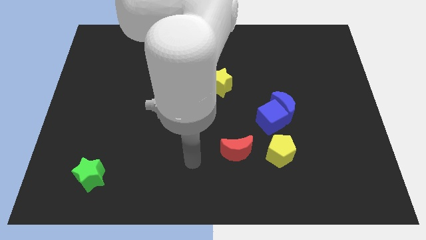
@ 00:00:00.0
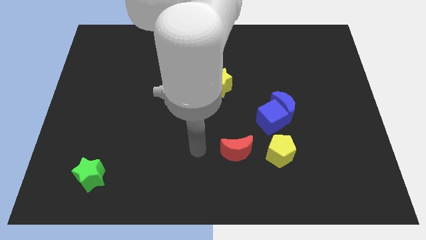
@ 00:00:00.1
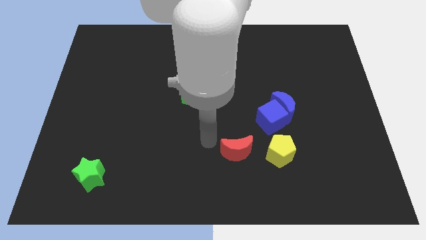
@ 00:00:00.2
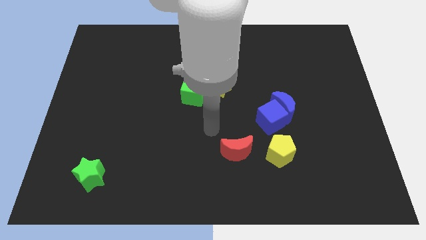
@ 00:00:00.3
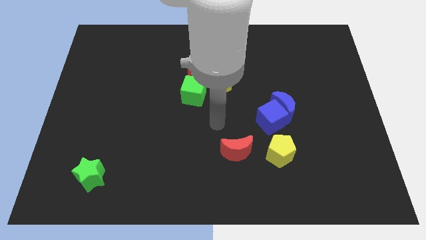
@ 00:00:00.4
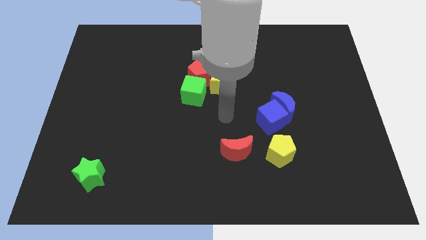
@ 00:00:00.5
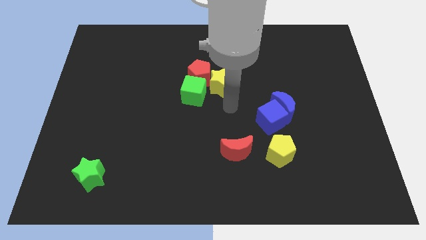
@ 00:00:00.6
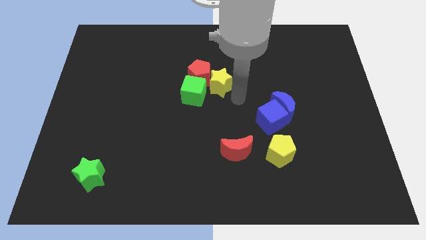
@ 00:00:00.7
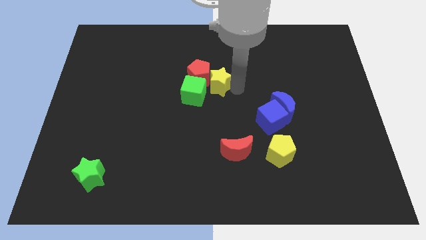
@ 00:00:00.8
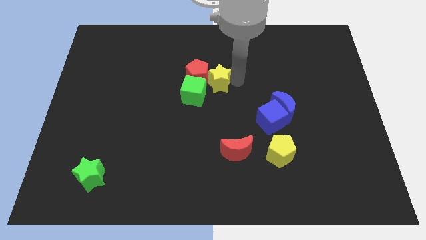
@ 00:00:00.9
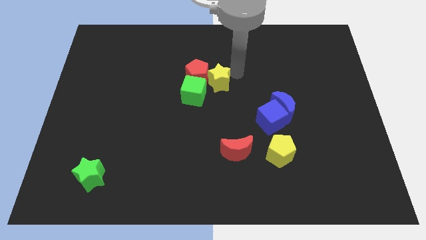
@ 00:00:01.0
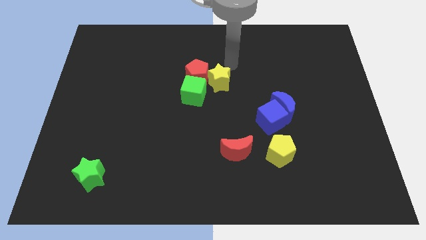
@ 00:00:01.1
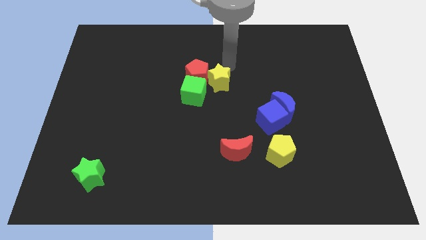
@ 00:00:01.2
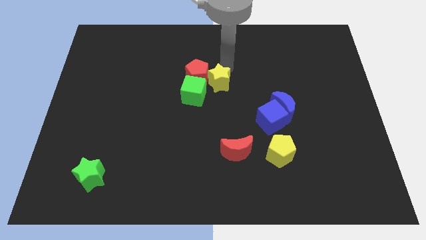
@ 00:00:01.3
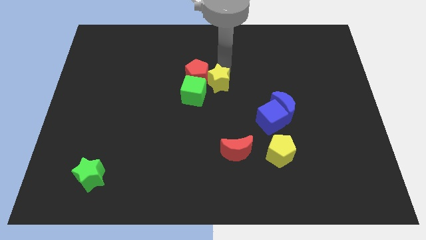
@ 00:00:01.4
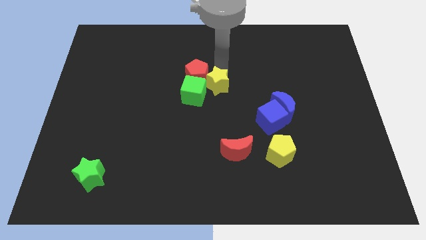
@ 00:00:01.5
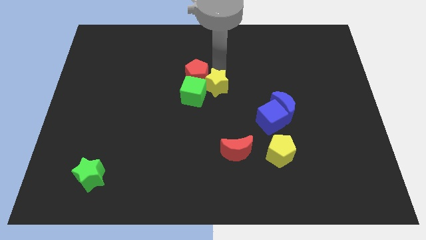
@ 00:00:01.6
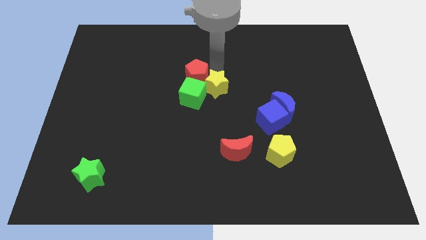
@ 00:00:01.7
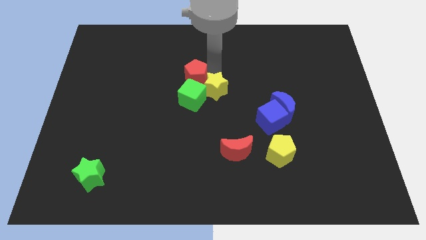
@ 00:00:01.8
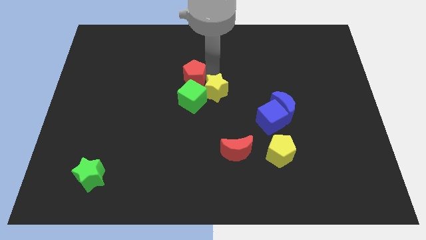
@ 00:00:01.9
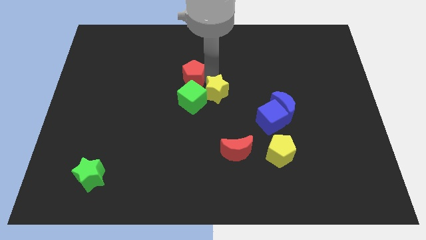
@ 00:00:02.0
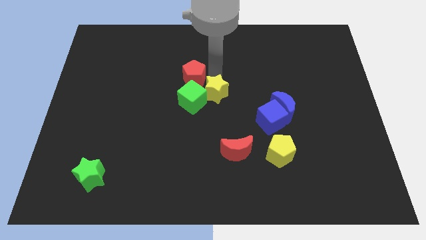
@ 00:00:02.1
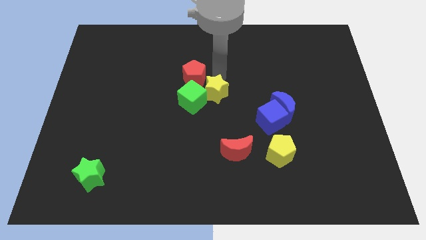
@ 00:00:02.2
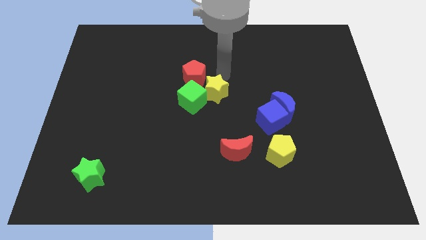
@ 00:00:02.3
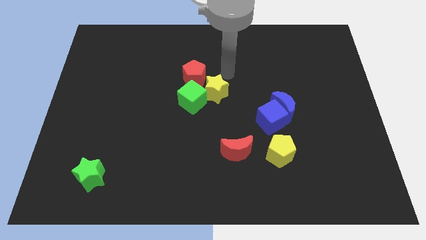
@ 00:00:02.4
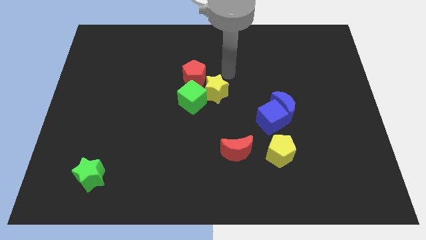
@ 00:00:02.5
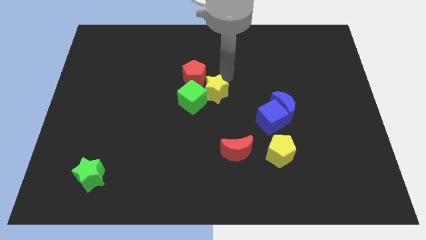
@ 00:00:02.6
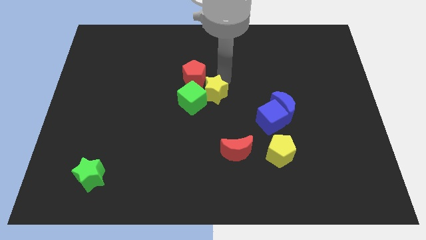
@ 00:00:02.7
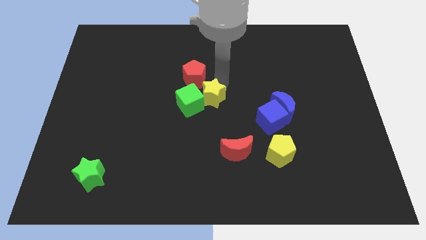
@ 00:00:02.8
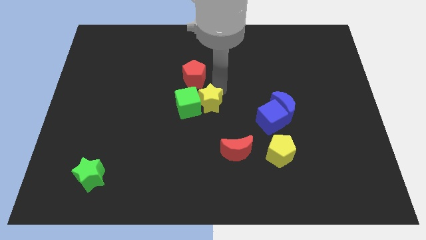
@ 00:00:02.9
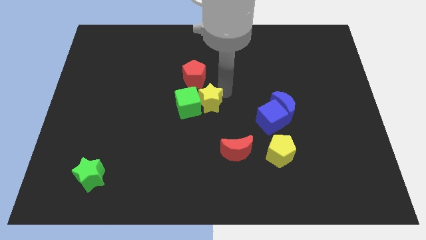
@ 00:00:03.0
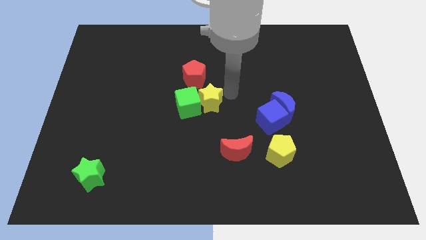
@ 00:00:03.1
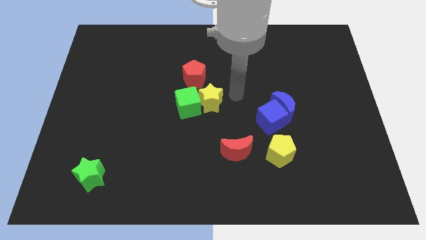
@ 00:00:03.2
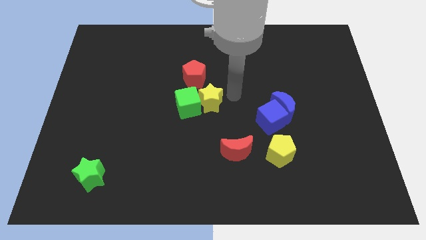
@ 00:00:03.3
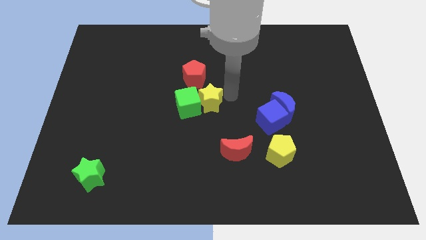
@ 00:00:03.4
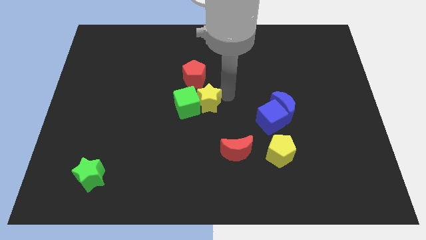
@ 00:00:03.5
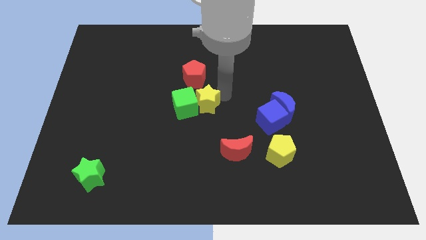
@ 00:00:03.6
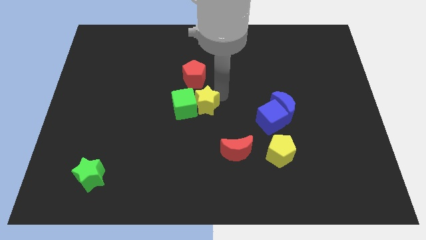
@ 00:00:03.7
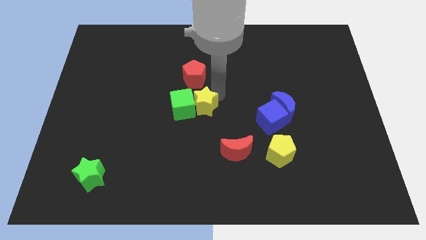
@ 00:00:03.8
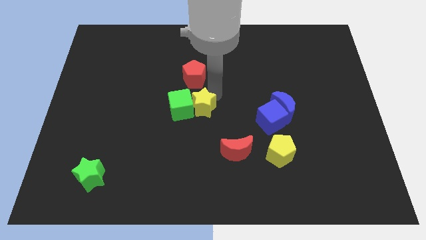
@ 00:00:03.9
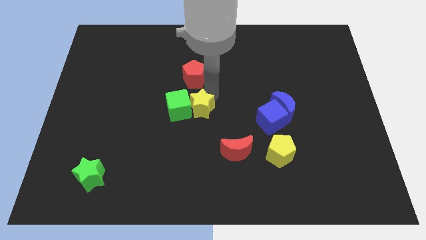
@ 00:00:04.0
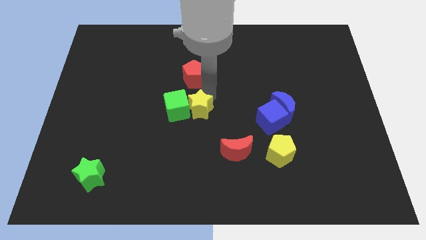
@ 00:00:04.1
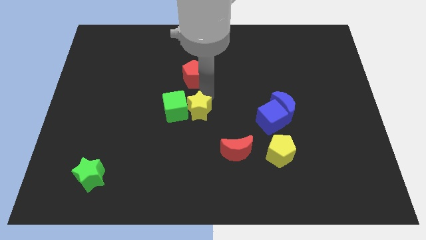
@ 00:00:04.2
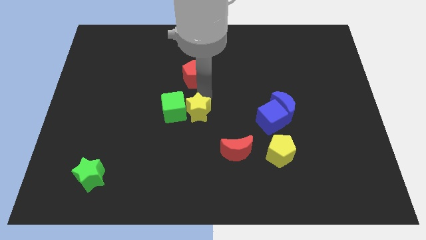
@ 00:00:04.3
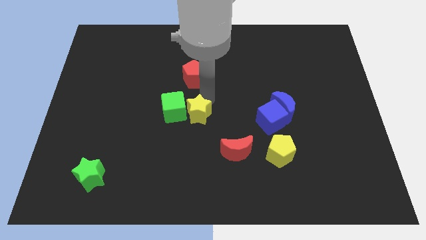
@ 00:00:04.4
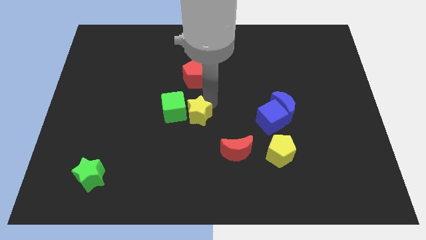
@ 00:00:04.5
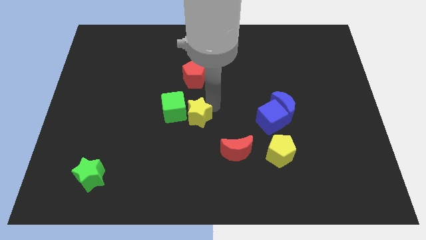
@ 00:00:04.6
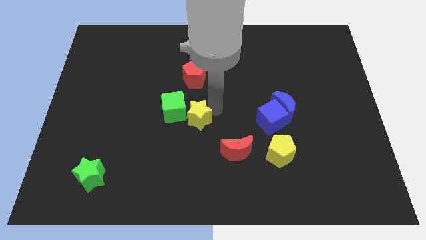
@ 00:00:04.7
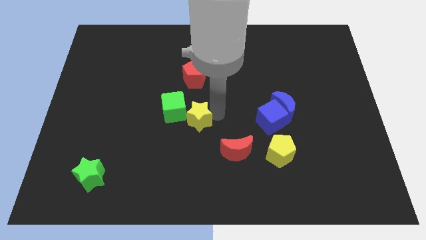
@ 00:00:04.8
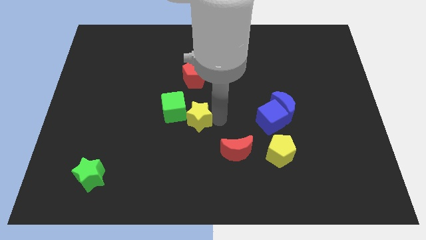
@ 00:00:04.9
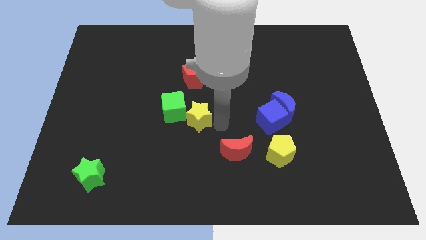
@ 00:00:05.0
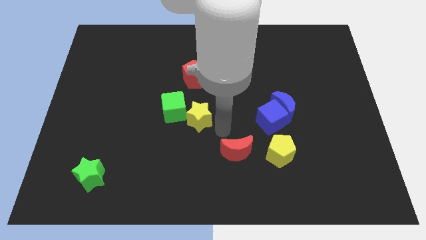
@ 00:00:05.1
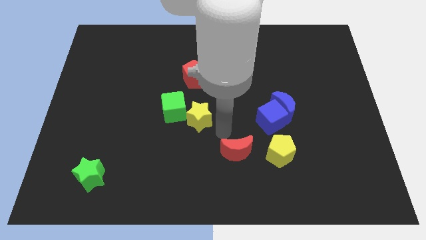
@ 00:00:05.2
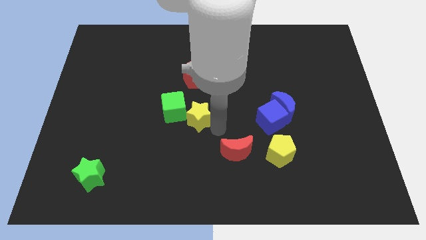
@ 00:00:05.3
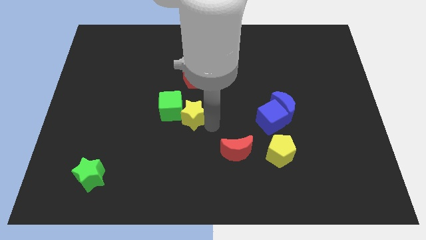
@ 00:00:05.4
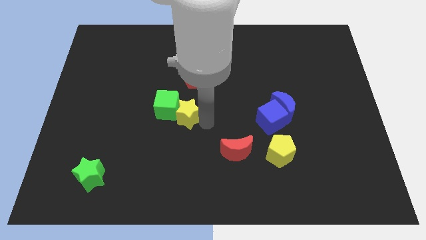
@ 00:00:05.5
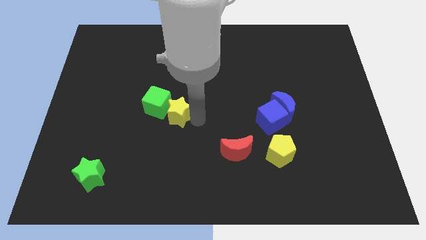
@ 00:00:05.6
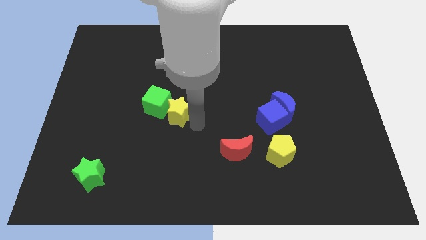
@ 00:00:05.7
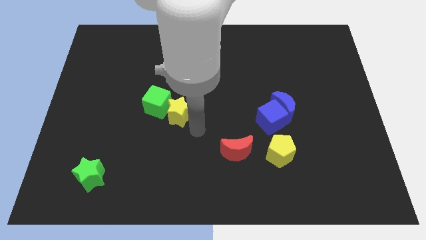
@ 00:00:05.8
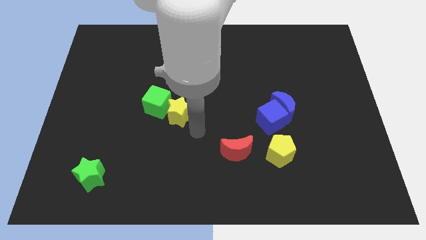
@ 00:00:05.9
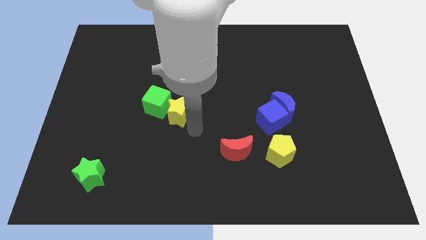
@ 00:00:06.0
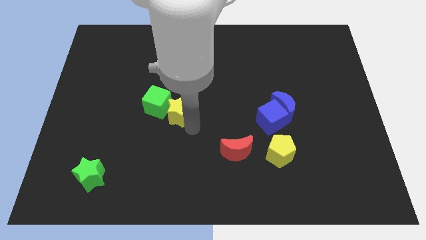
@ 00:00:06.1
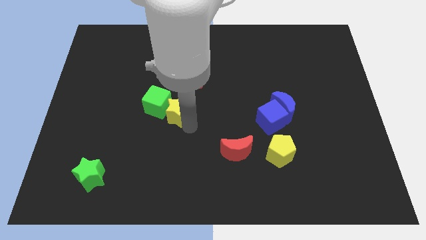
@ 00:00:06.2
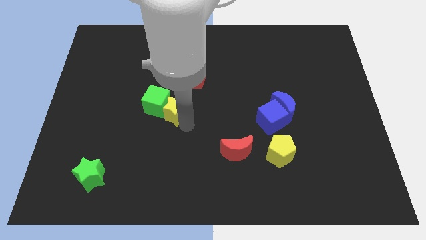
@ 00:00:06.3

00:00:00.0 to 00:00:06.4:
slide the yellow star left a little

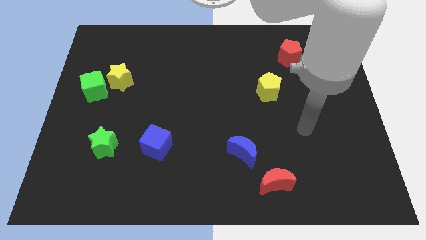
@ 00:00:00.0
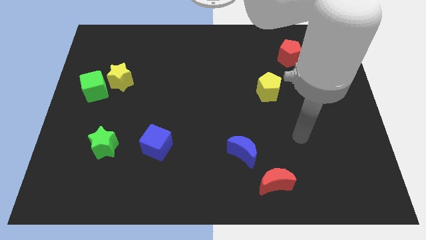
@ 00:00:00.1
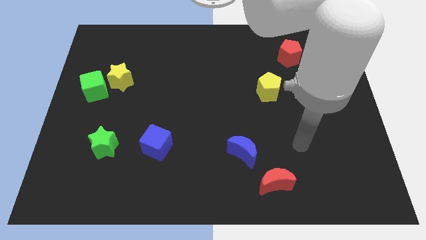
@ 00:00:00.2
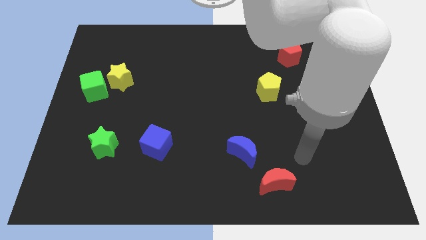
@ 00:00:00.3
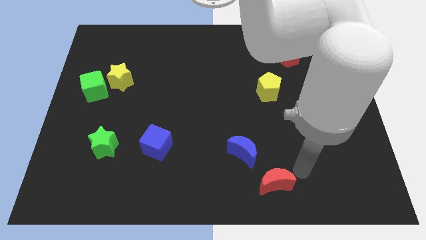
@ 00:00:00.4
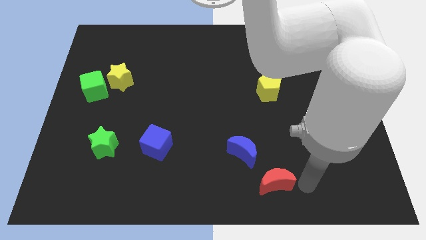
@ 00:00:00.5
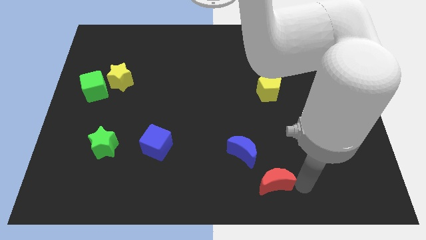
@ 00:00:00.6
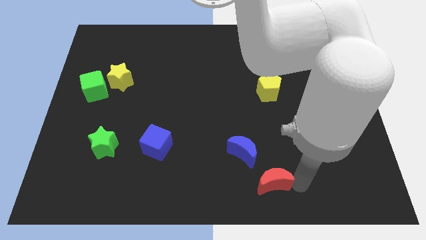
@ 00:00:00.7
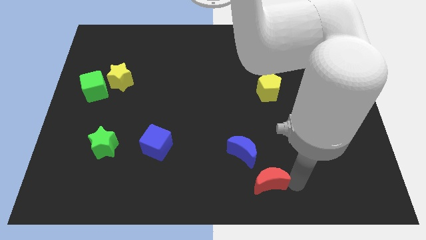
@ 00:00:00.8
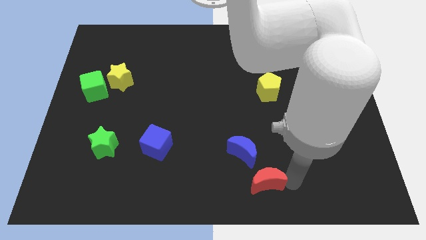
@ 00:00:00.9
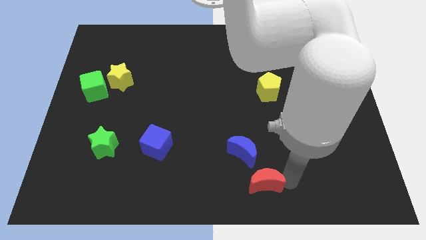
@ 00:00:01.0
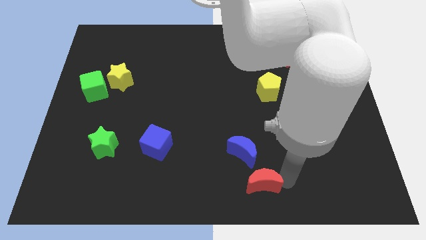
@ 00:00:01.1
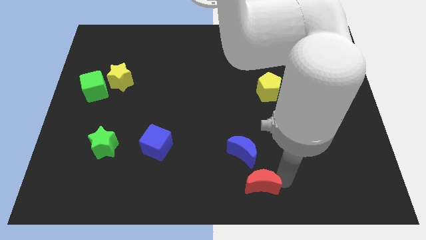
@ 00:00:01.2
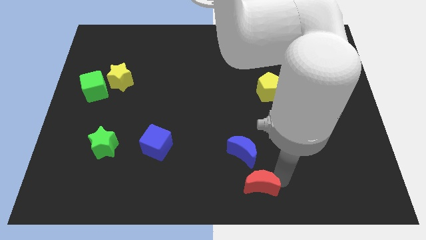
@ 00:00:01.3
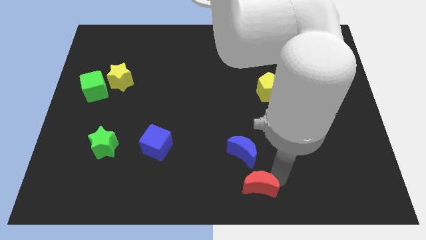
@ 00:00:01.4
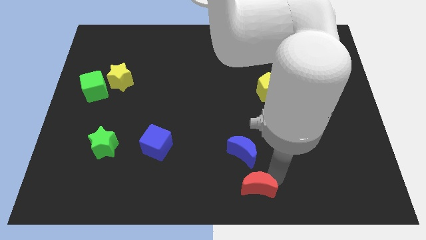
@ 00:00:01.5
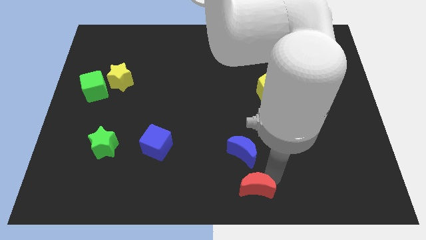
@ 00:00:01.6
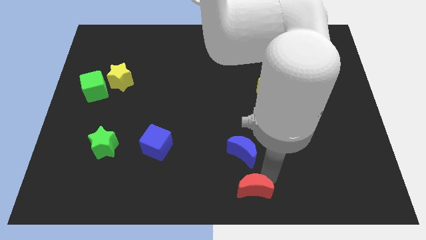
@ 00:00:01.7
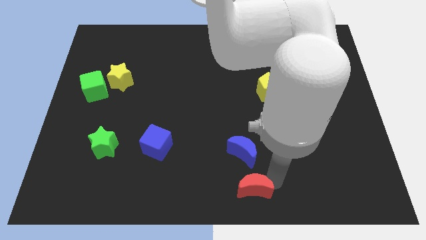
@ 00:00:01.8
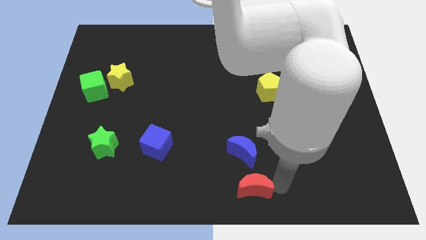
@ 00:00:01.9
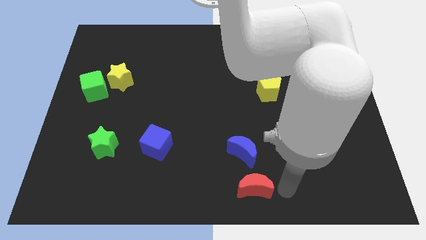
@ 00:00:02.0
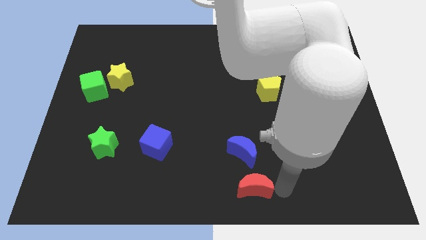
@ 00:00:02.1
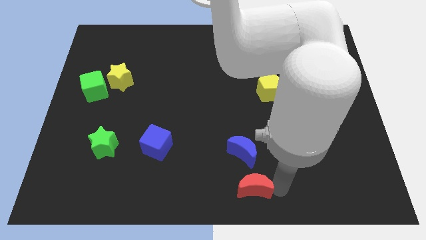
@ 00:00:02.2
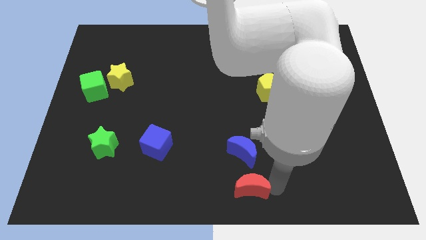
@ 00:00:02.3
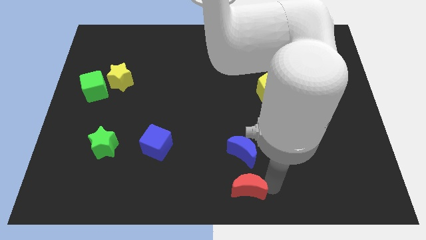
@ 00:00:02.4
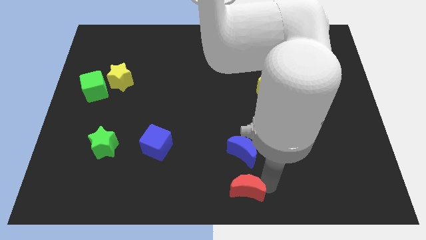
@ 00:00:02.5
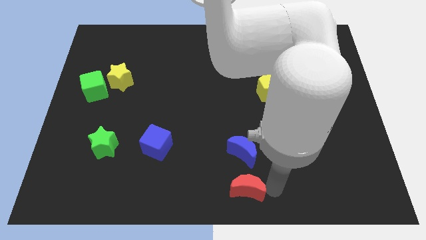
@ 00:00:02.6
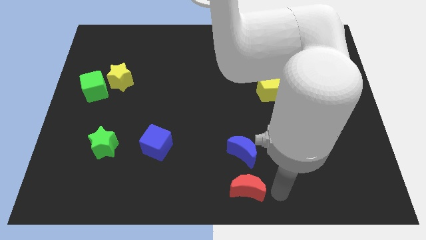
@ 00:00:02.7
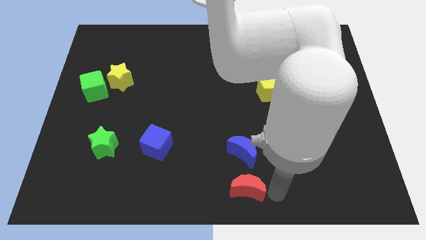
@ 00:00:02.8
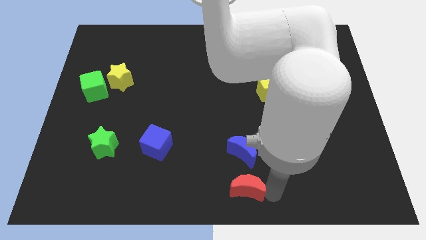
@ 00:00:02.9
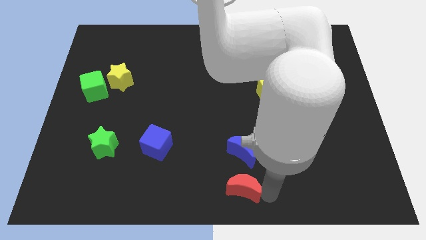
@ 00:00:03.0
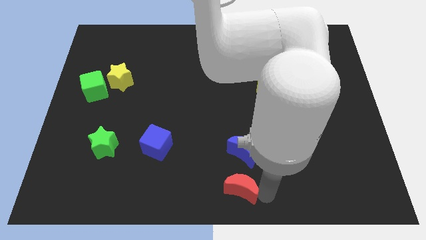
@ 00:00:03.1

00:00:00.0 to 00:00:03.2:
move the red moon to the left somewhat
